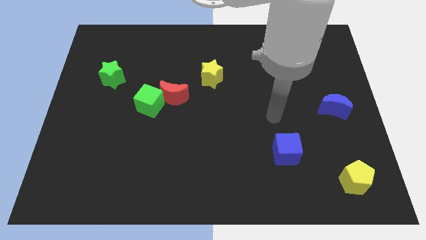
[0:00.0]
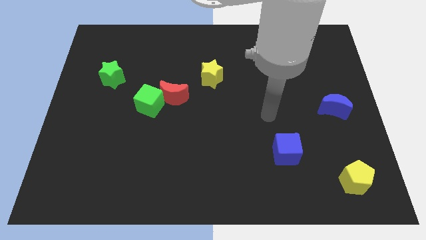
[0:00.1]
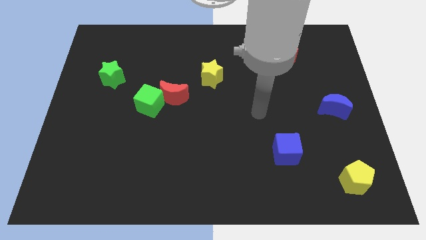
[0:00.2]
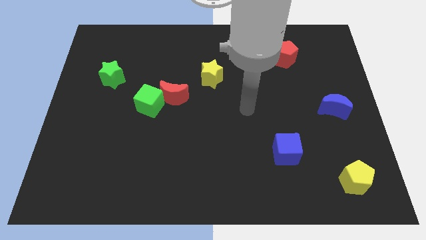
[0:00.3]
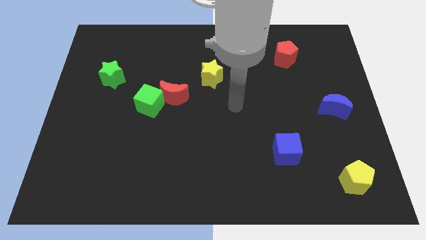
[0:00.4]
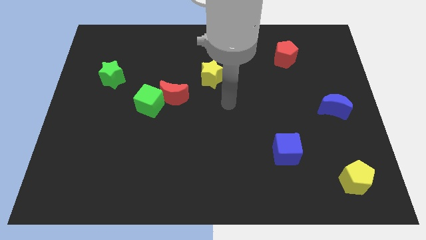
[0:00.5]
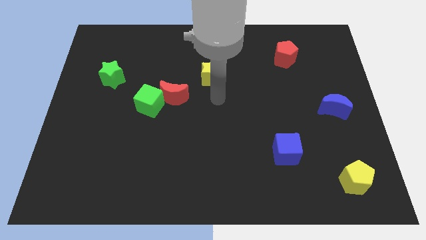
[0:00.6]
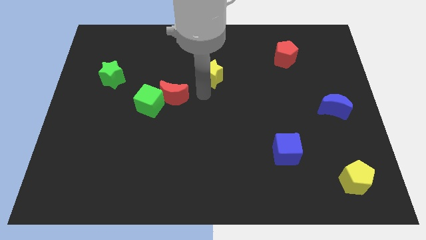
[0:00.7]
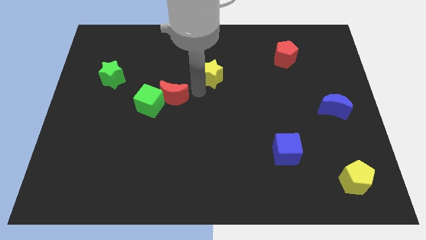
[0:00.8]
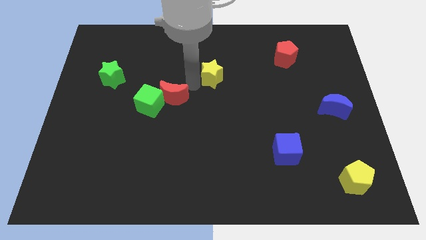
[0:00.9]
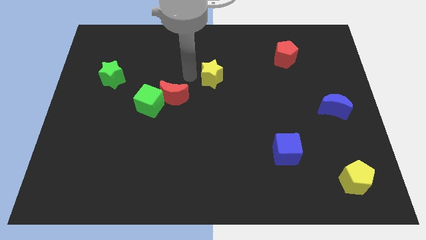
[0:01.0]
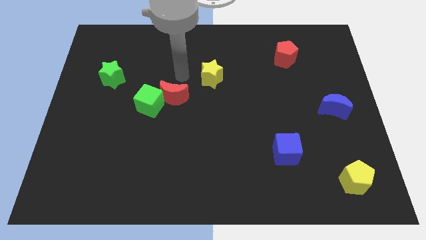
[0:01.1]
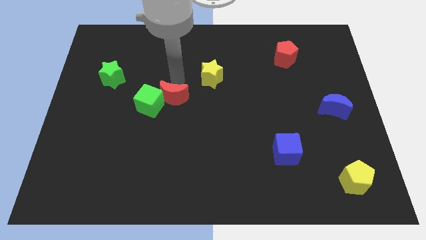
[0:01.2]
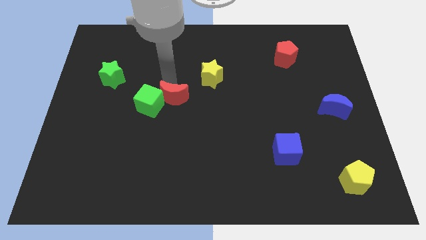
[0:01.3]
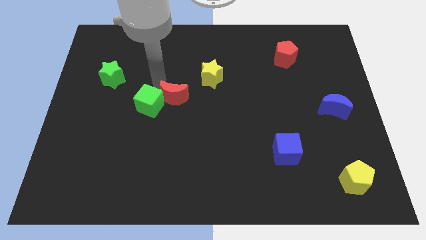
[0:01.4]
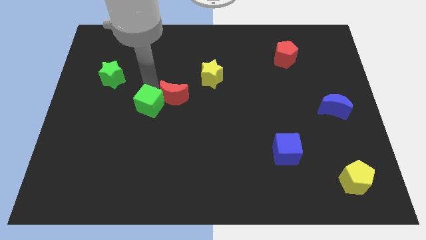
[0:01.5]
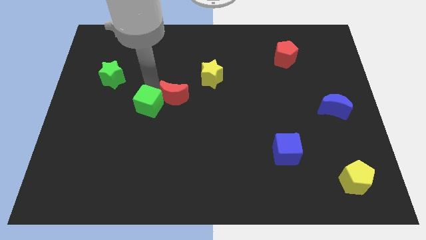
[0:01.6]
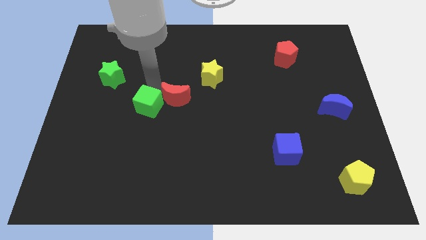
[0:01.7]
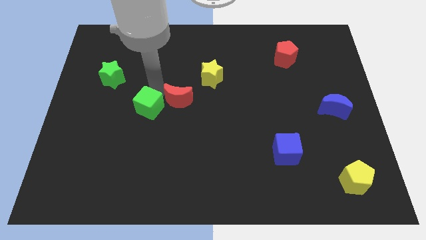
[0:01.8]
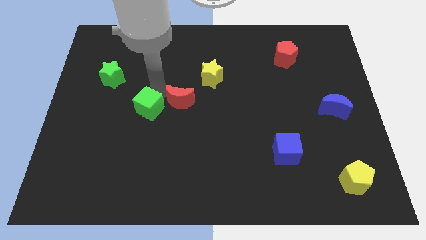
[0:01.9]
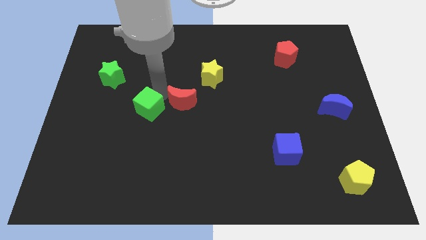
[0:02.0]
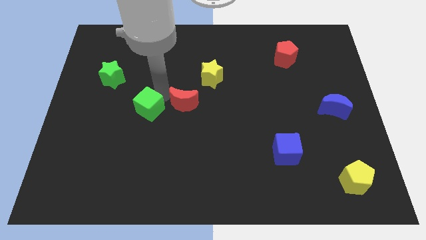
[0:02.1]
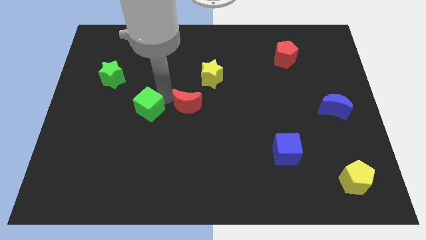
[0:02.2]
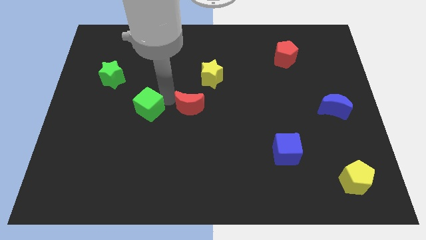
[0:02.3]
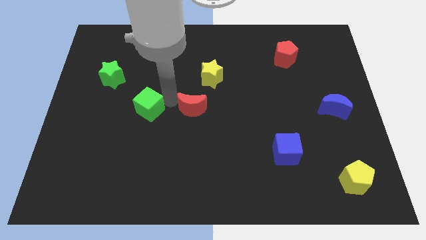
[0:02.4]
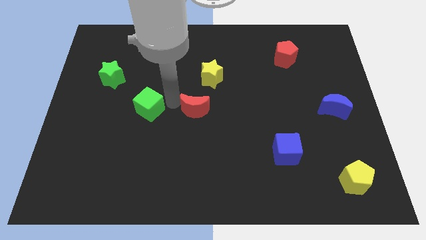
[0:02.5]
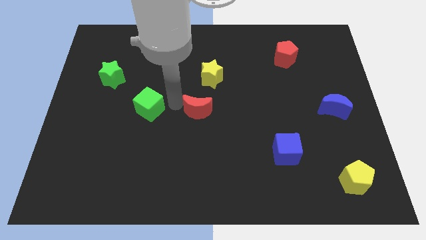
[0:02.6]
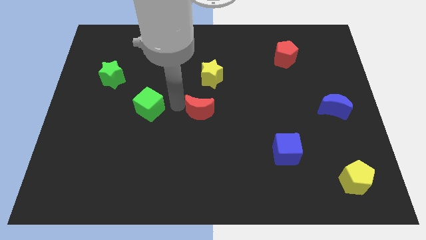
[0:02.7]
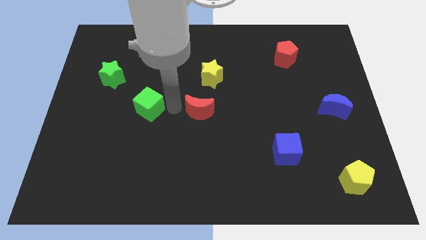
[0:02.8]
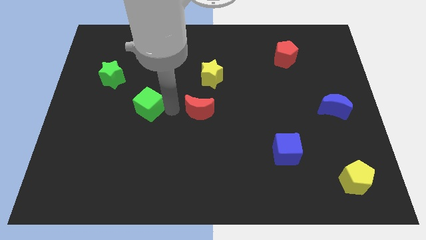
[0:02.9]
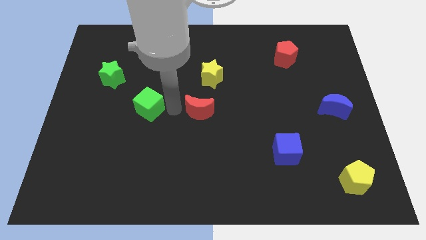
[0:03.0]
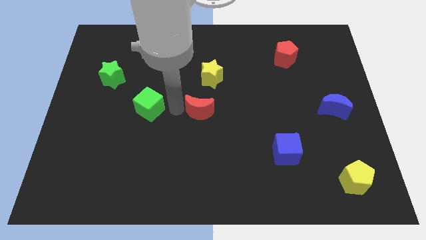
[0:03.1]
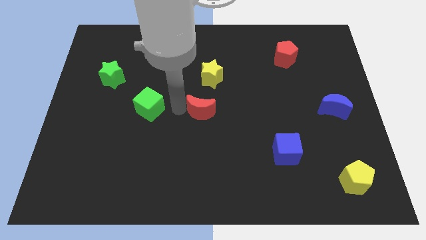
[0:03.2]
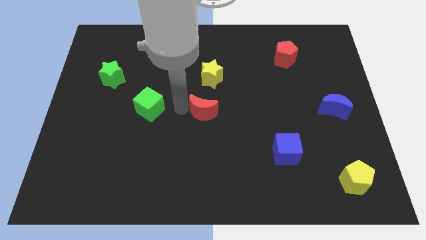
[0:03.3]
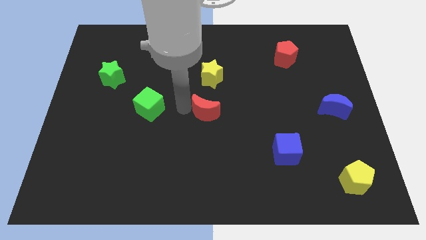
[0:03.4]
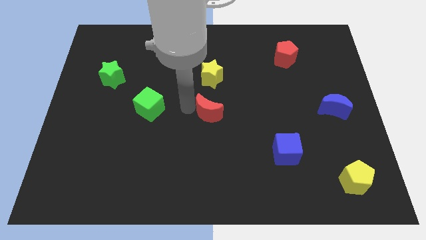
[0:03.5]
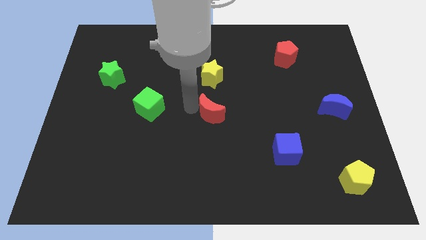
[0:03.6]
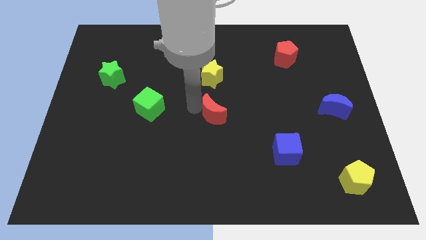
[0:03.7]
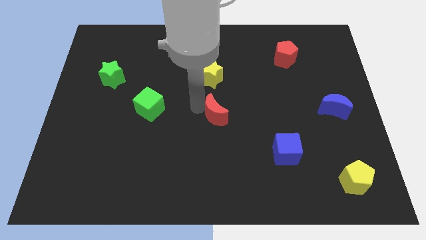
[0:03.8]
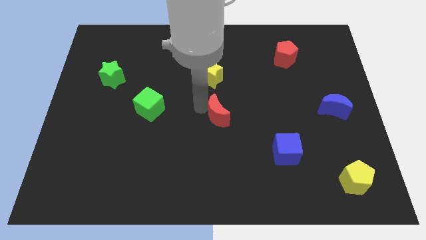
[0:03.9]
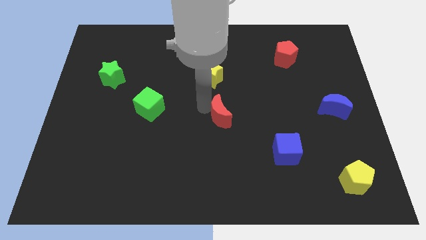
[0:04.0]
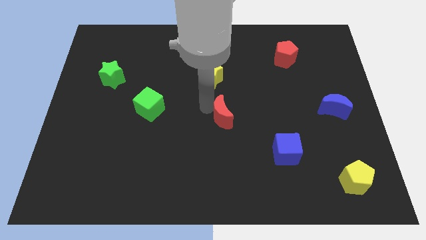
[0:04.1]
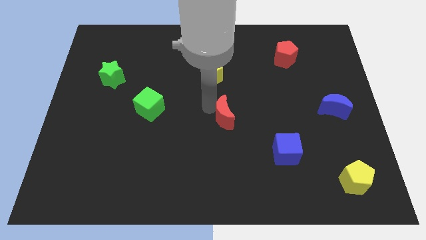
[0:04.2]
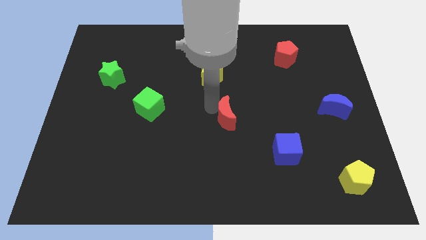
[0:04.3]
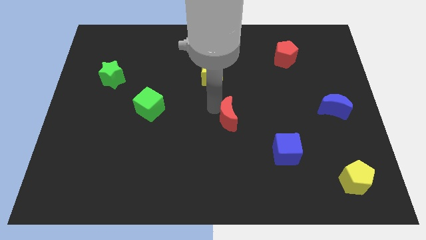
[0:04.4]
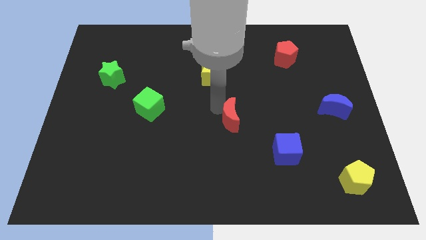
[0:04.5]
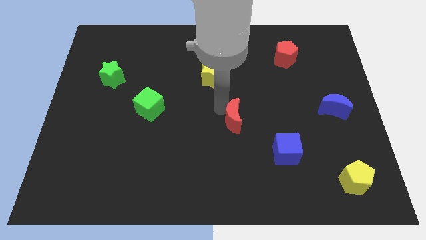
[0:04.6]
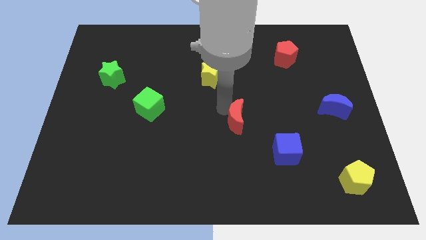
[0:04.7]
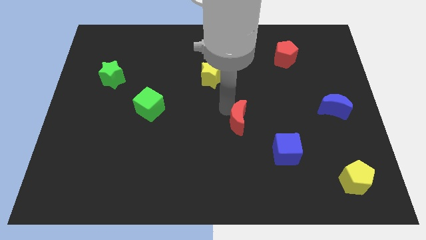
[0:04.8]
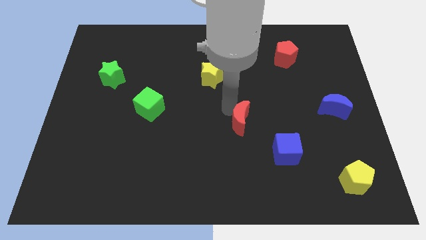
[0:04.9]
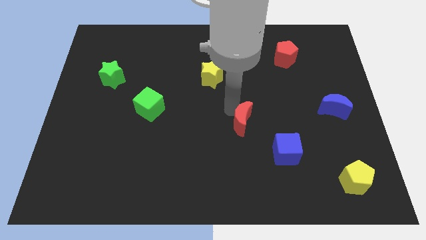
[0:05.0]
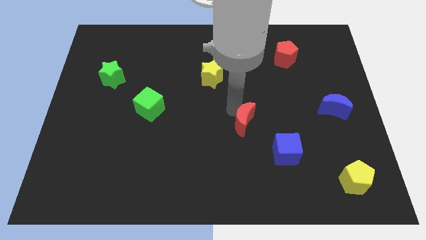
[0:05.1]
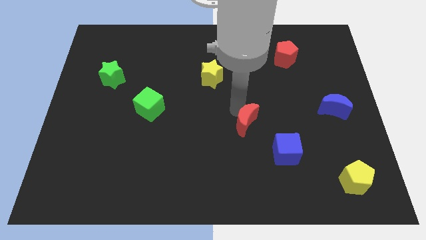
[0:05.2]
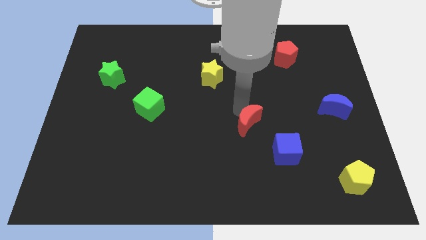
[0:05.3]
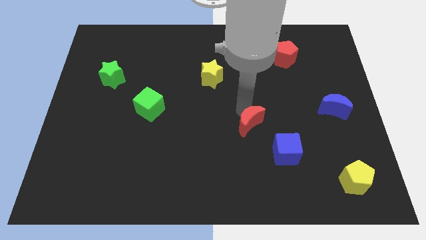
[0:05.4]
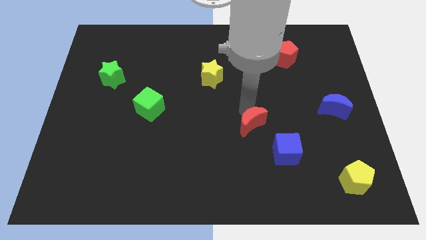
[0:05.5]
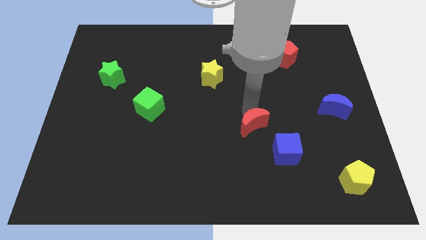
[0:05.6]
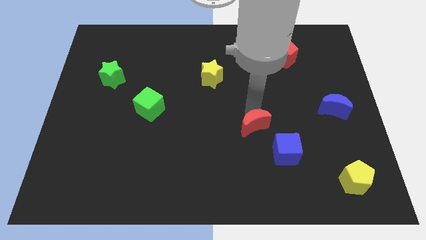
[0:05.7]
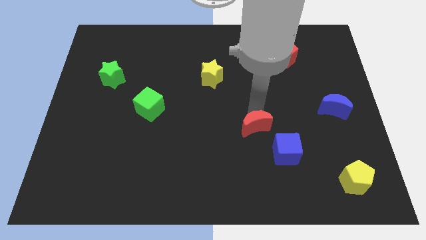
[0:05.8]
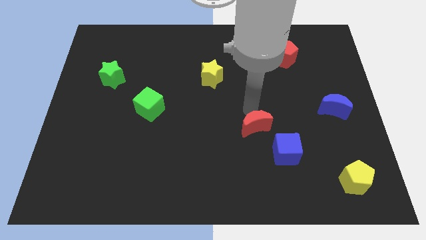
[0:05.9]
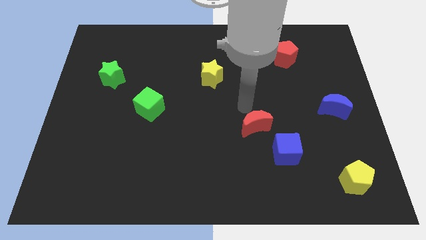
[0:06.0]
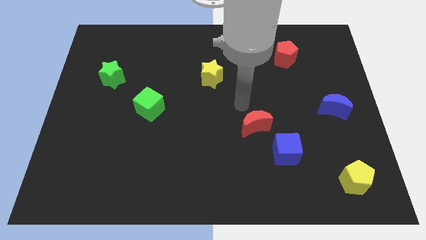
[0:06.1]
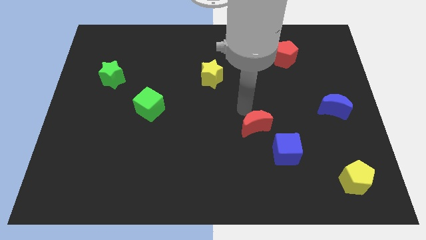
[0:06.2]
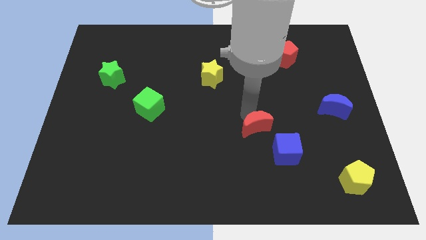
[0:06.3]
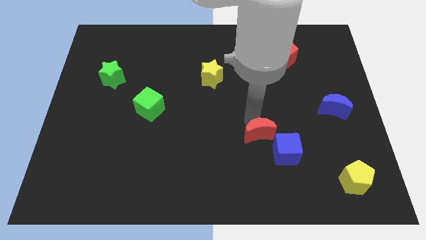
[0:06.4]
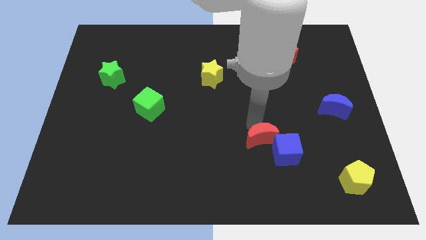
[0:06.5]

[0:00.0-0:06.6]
push the red moon towards the blue cube
